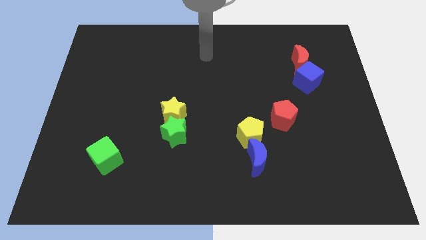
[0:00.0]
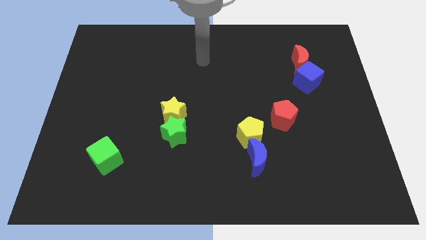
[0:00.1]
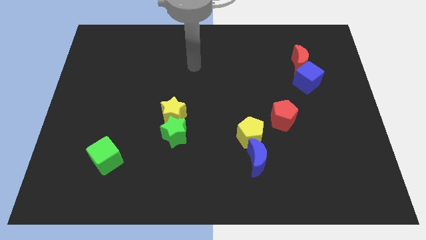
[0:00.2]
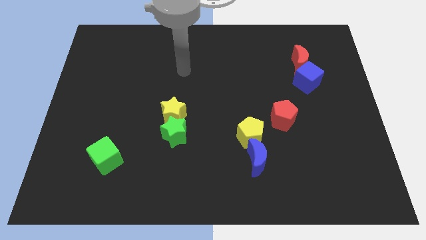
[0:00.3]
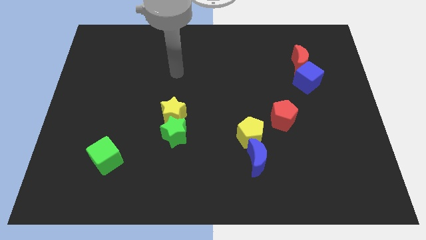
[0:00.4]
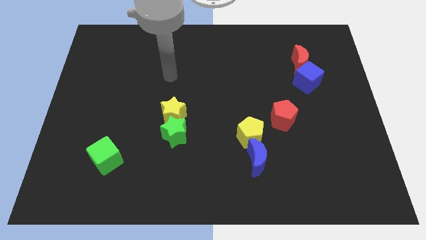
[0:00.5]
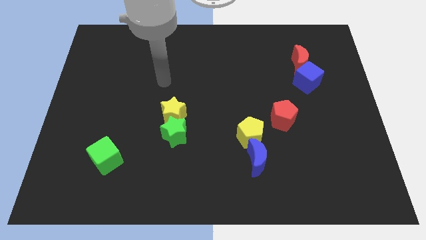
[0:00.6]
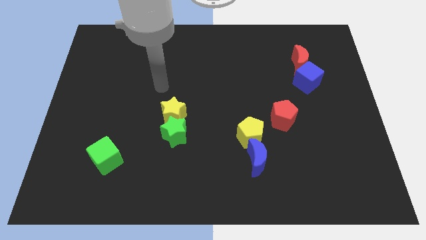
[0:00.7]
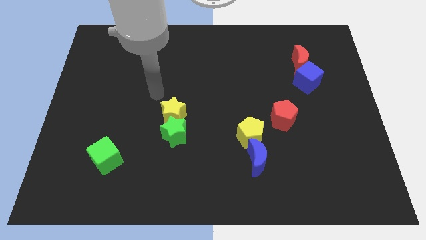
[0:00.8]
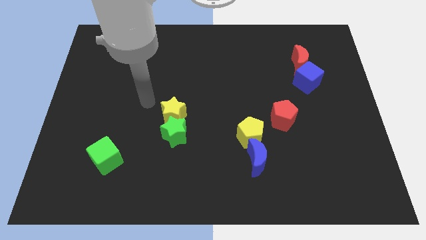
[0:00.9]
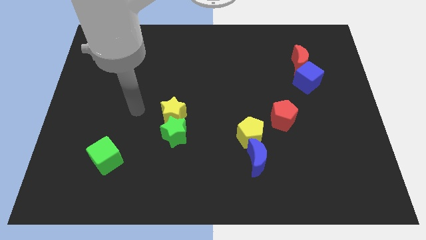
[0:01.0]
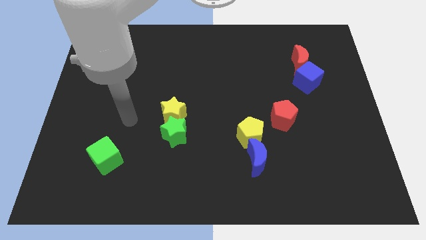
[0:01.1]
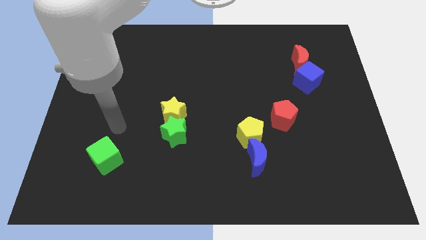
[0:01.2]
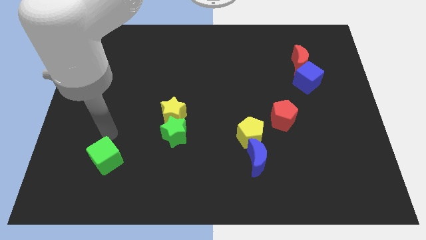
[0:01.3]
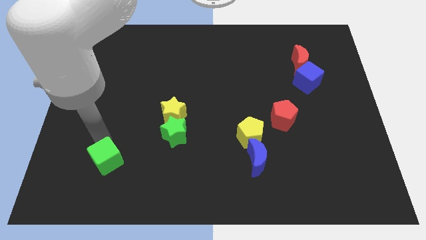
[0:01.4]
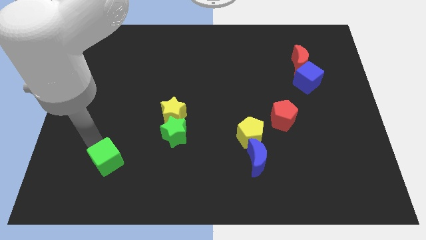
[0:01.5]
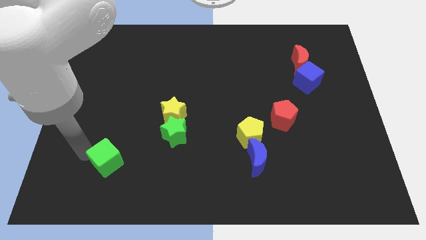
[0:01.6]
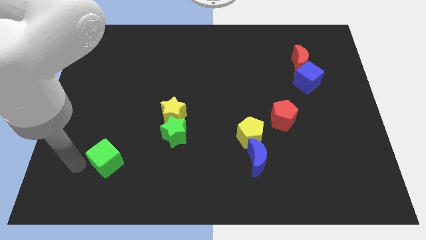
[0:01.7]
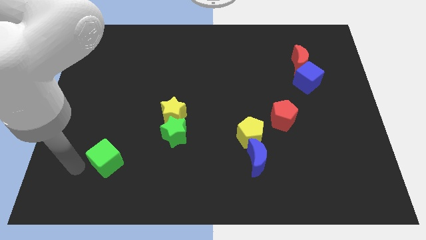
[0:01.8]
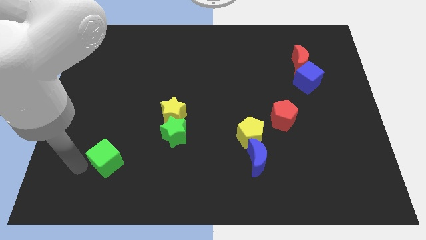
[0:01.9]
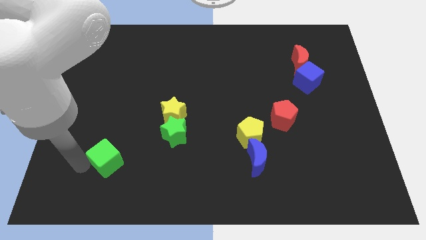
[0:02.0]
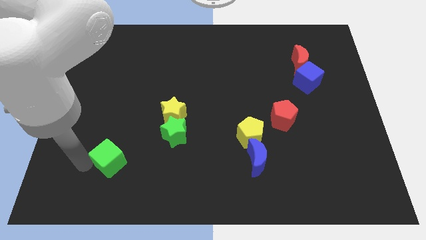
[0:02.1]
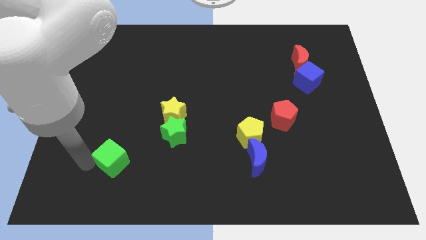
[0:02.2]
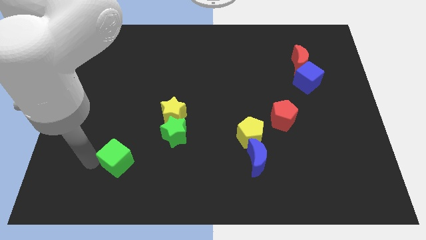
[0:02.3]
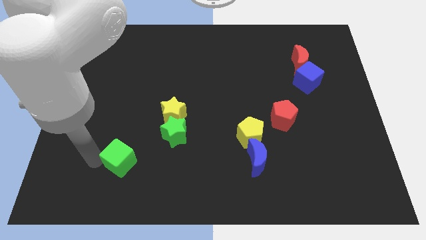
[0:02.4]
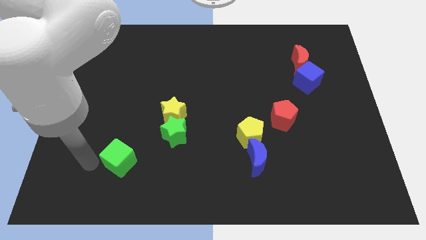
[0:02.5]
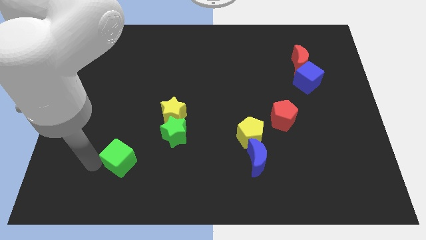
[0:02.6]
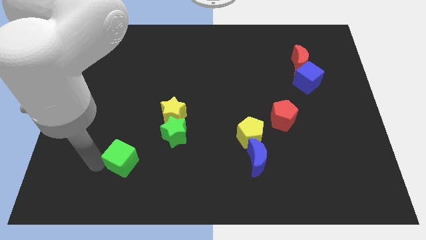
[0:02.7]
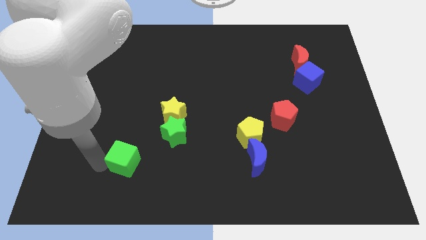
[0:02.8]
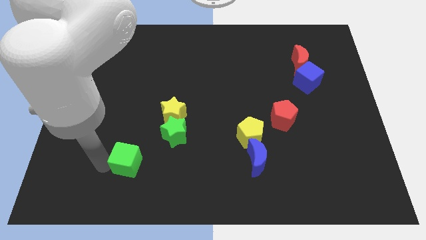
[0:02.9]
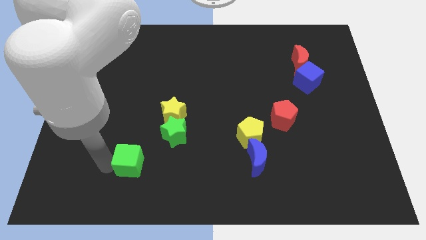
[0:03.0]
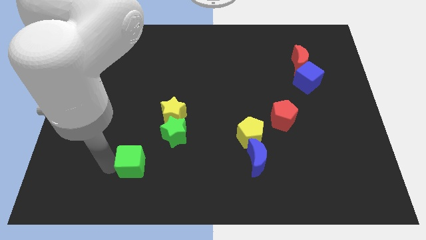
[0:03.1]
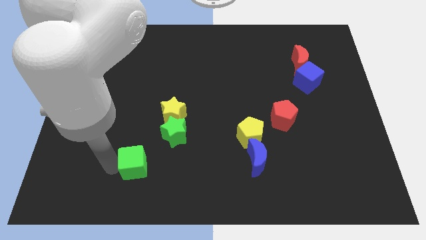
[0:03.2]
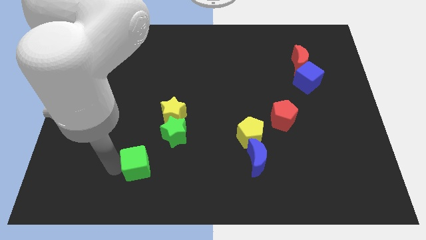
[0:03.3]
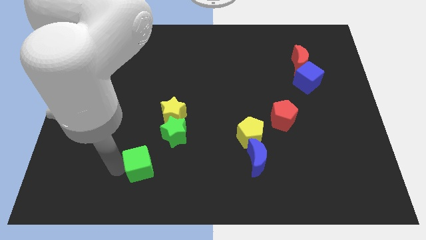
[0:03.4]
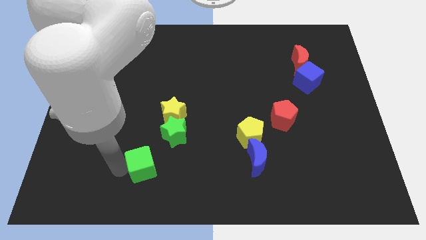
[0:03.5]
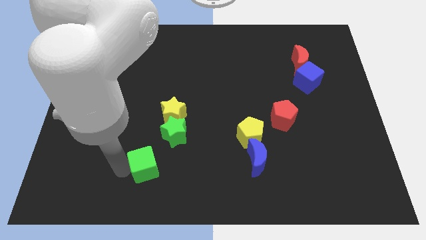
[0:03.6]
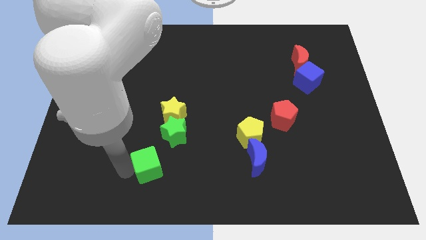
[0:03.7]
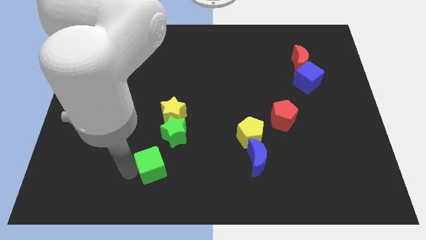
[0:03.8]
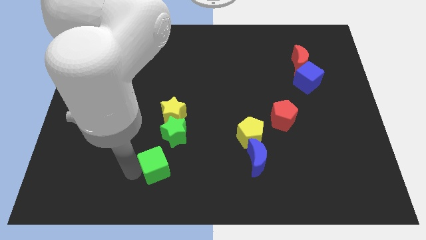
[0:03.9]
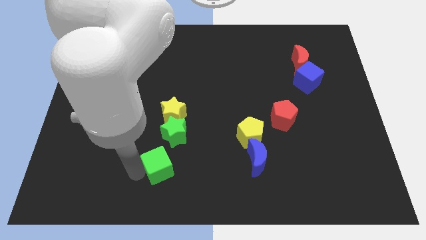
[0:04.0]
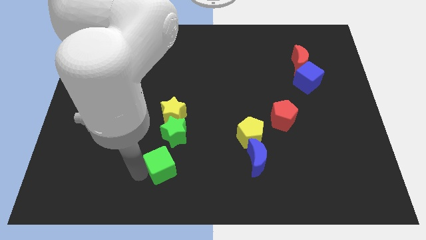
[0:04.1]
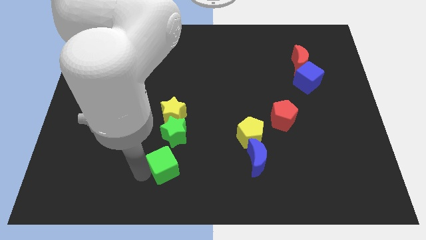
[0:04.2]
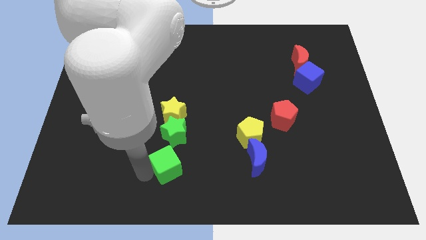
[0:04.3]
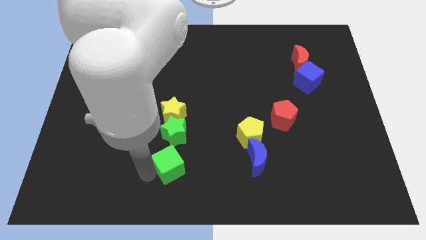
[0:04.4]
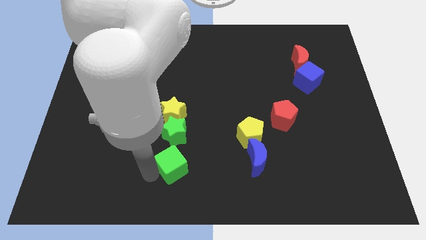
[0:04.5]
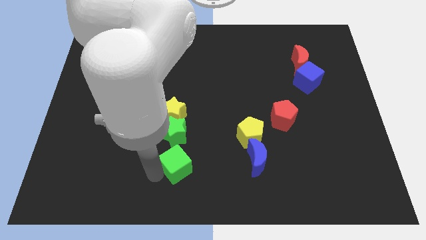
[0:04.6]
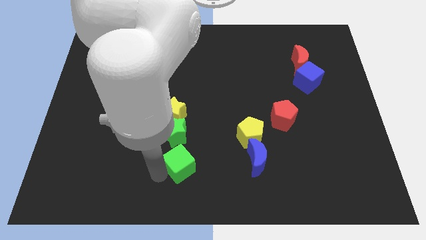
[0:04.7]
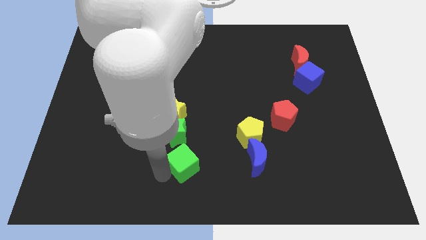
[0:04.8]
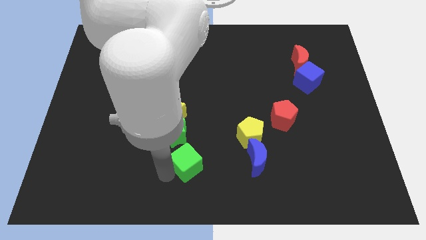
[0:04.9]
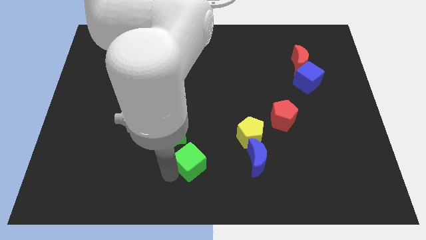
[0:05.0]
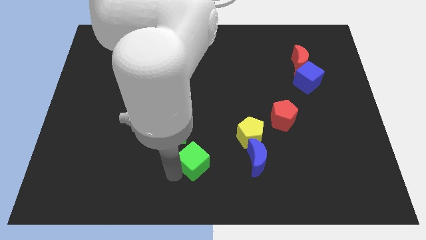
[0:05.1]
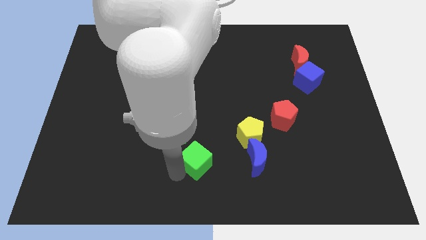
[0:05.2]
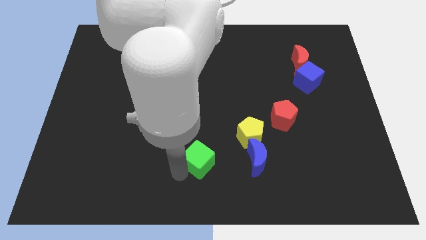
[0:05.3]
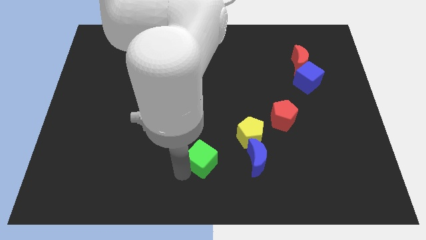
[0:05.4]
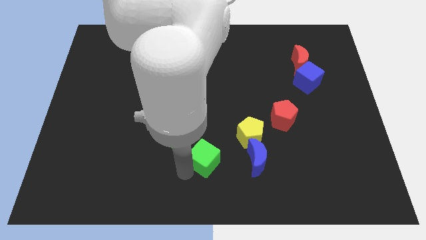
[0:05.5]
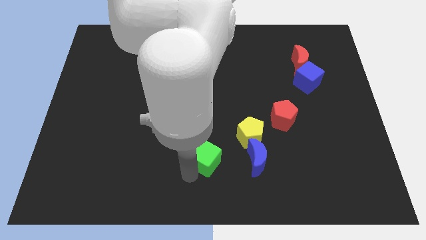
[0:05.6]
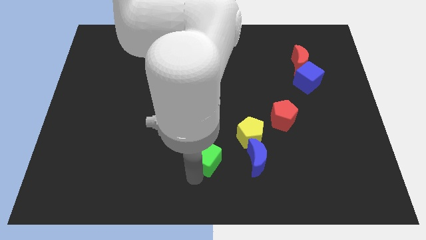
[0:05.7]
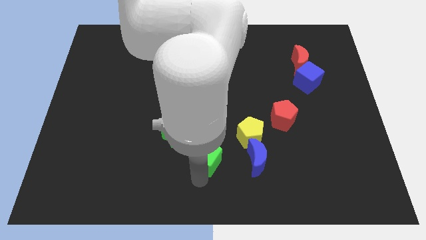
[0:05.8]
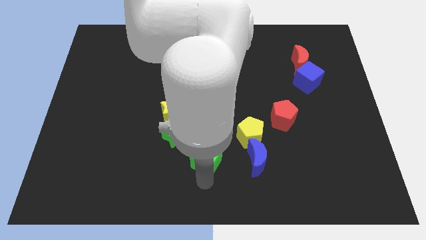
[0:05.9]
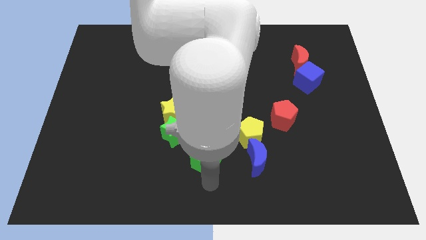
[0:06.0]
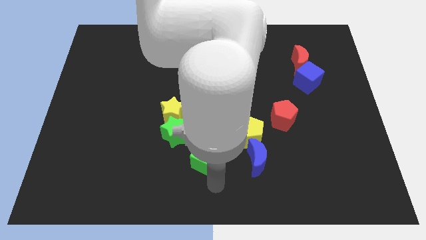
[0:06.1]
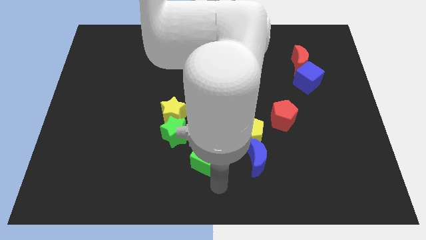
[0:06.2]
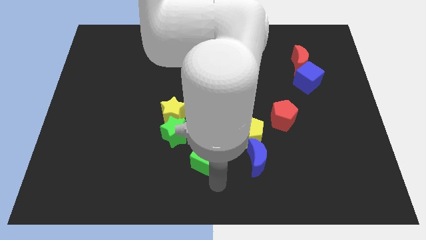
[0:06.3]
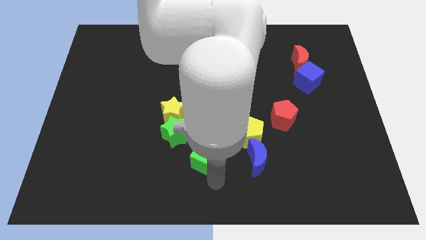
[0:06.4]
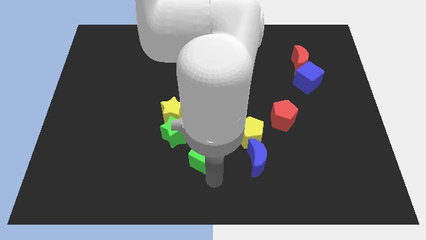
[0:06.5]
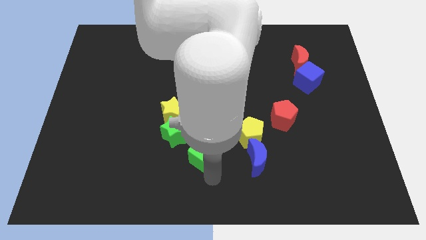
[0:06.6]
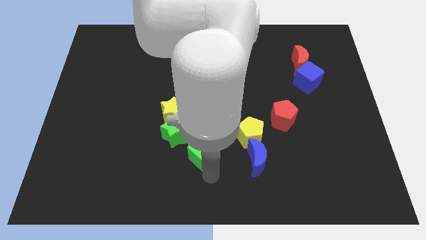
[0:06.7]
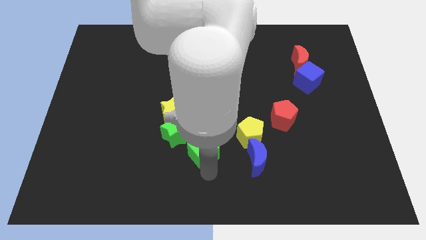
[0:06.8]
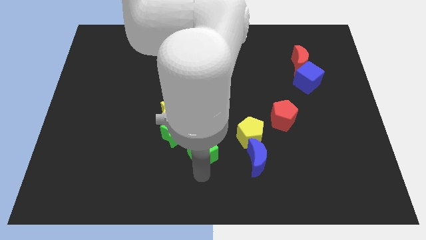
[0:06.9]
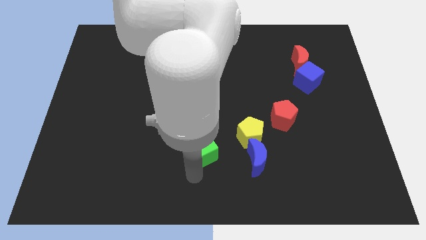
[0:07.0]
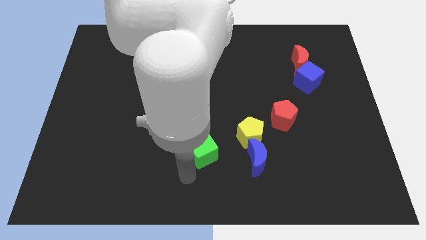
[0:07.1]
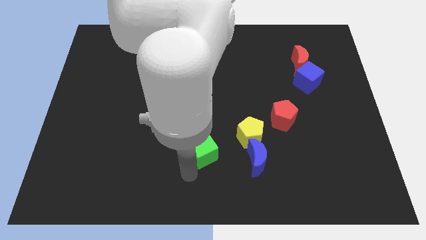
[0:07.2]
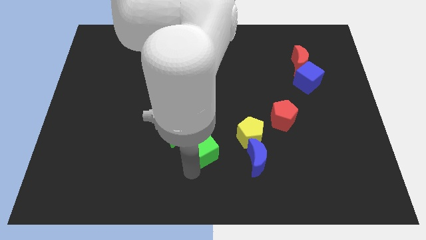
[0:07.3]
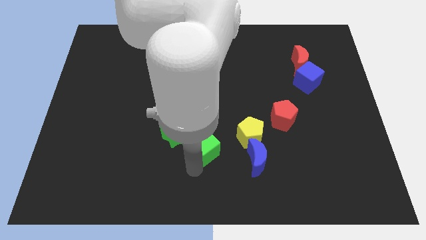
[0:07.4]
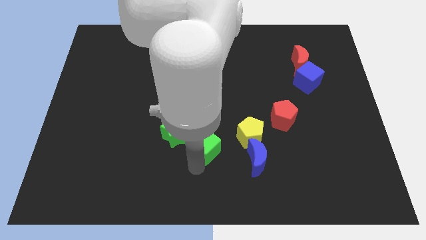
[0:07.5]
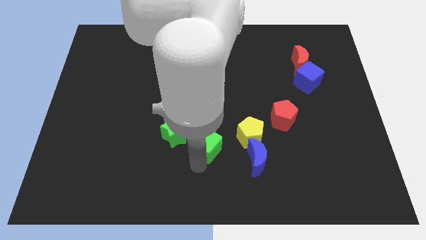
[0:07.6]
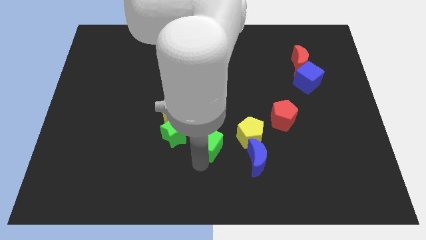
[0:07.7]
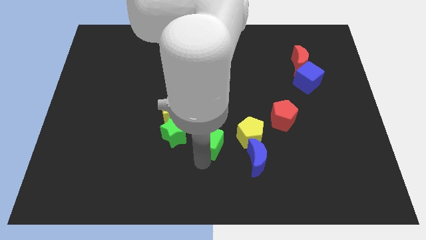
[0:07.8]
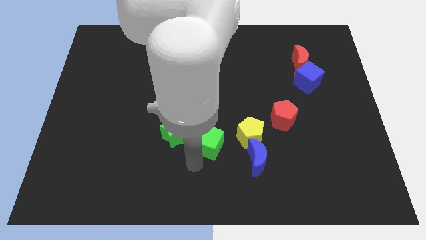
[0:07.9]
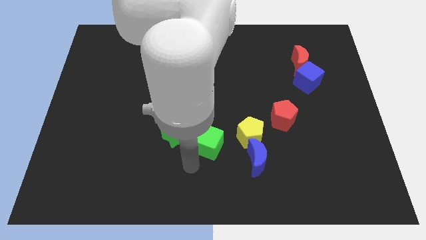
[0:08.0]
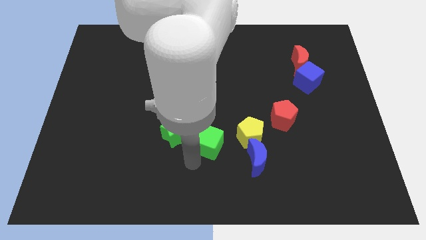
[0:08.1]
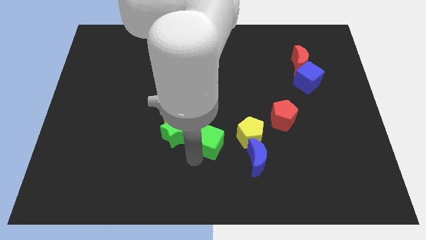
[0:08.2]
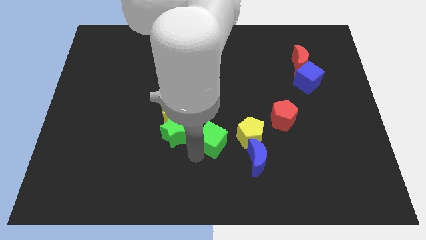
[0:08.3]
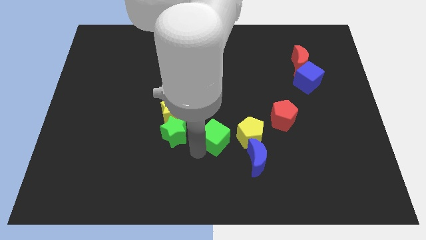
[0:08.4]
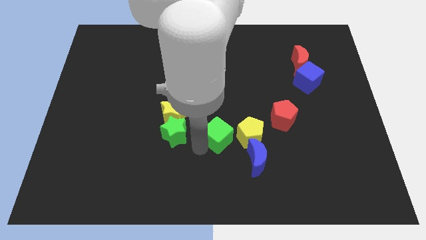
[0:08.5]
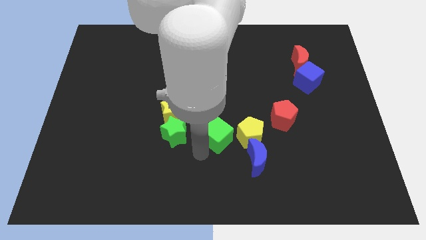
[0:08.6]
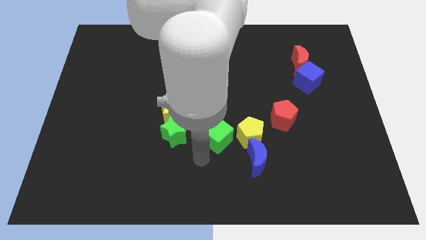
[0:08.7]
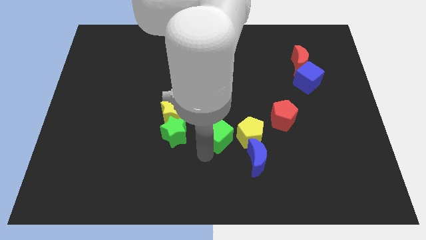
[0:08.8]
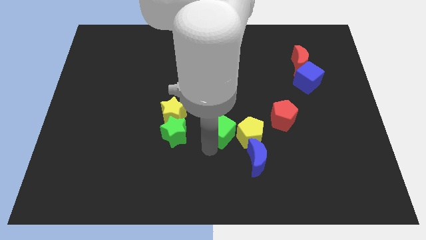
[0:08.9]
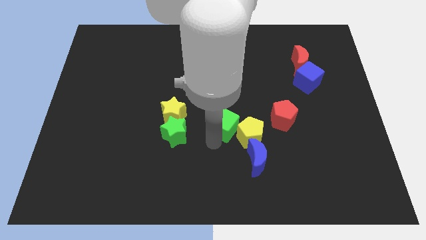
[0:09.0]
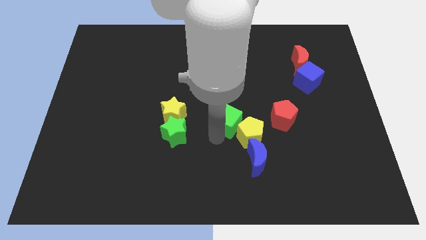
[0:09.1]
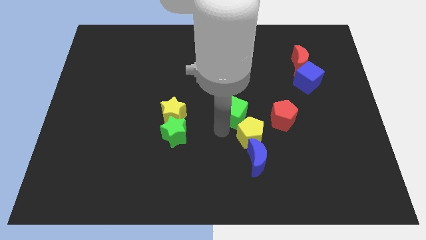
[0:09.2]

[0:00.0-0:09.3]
move the green cube to the top of the yellow pentagon
